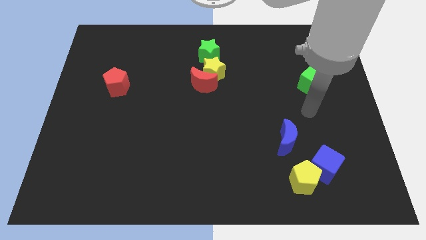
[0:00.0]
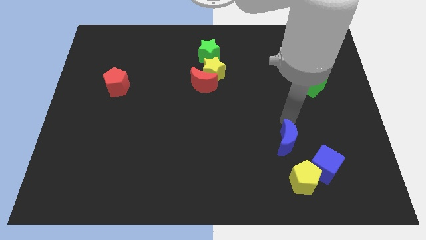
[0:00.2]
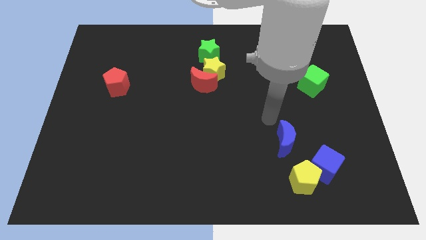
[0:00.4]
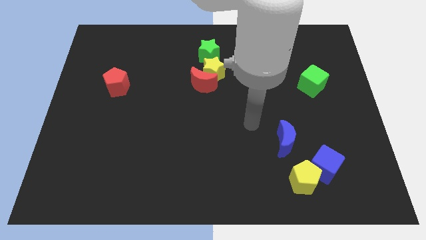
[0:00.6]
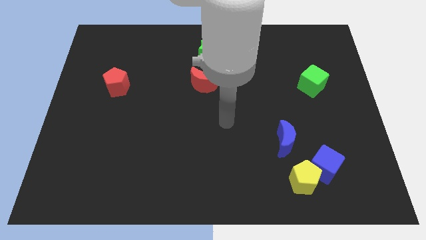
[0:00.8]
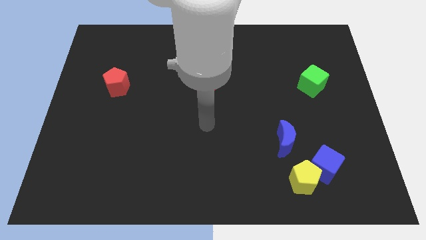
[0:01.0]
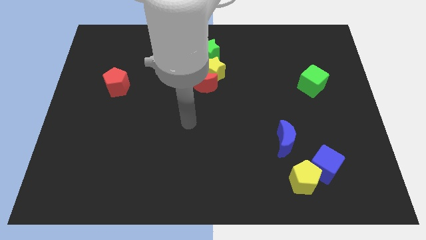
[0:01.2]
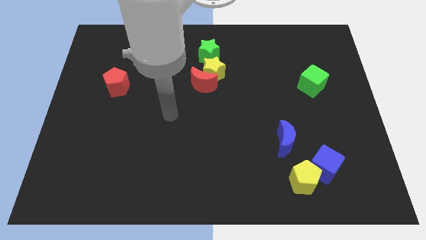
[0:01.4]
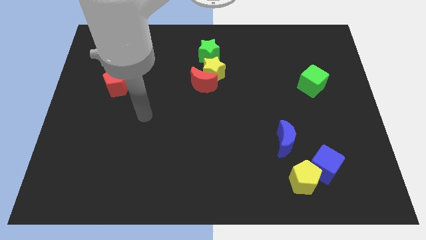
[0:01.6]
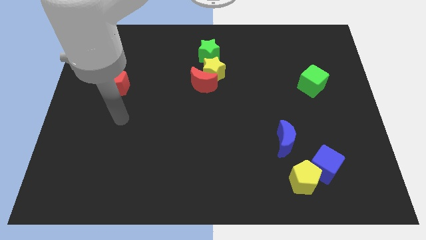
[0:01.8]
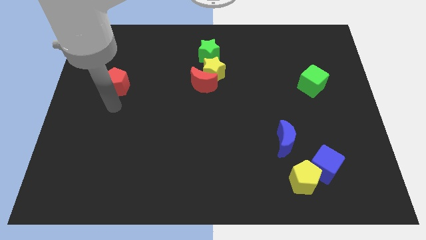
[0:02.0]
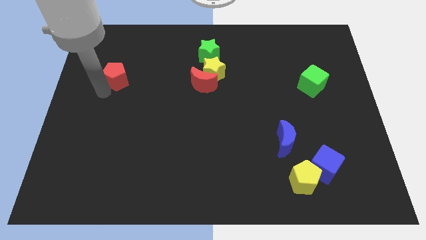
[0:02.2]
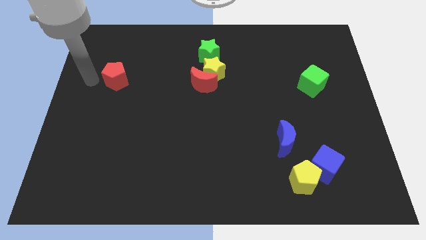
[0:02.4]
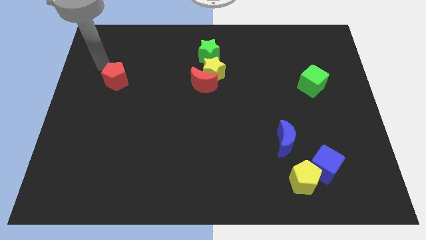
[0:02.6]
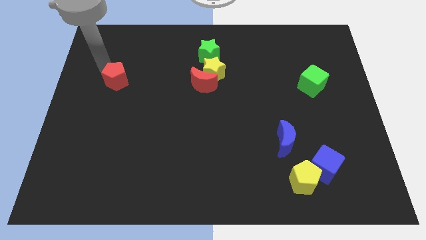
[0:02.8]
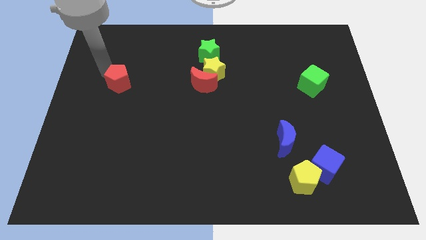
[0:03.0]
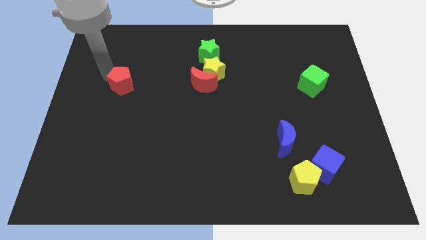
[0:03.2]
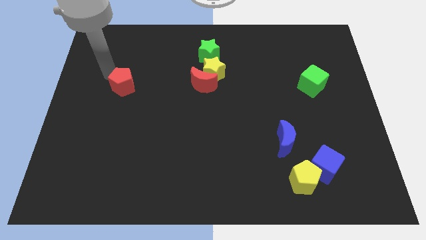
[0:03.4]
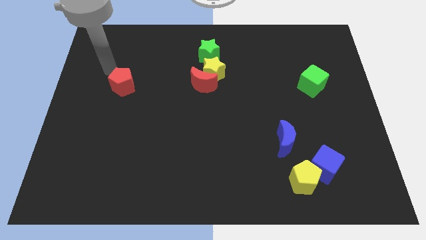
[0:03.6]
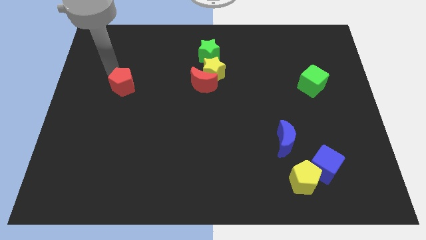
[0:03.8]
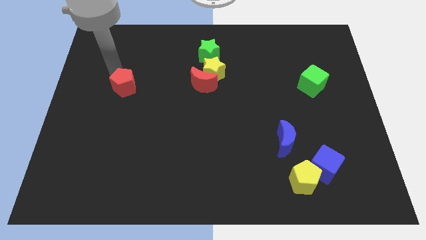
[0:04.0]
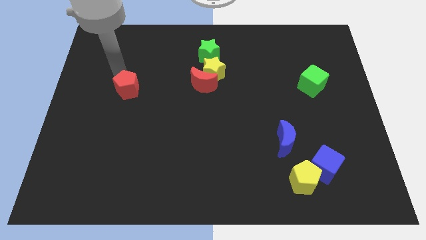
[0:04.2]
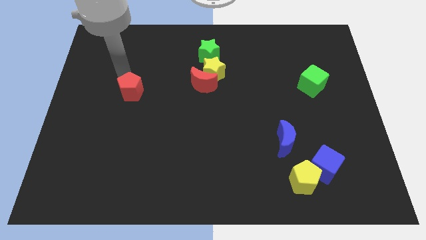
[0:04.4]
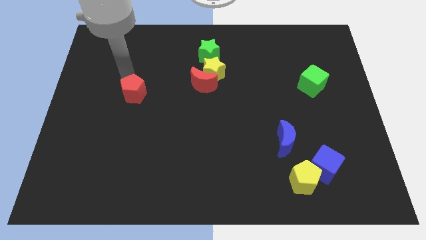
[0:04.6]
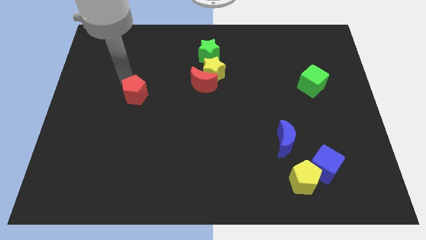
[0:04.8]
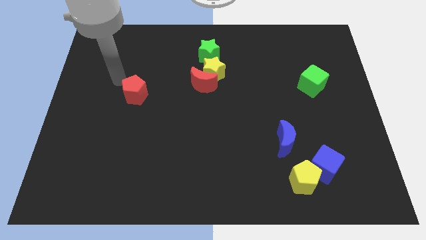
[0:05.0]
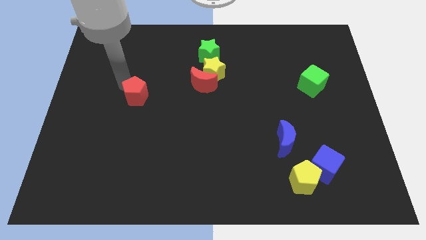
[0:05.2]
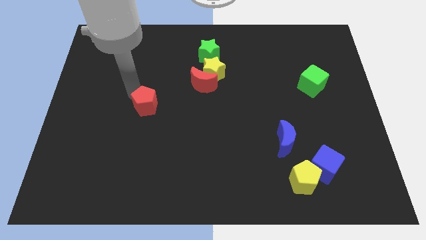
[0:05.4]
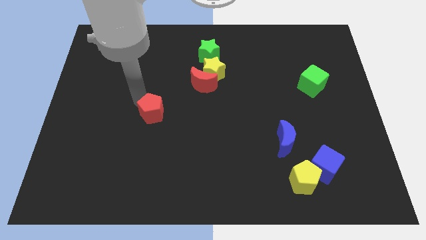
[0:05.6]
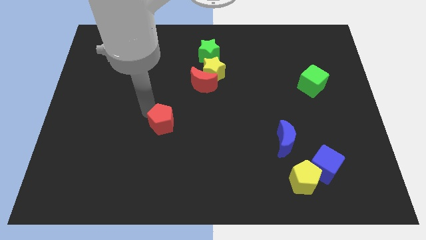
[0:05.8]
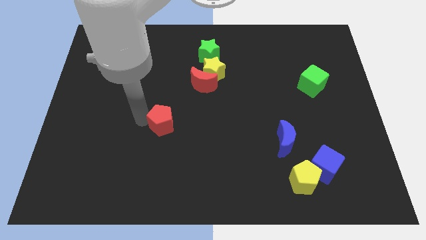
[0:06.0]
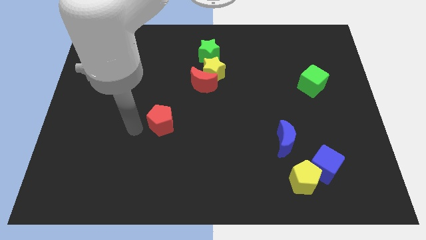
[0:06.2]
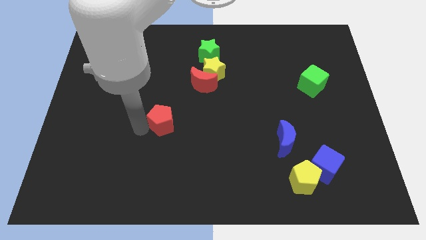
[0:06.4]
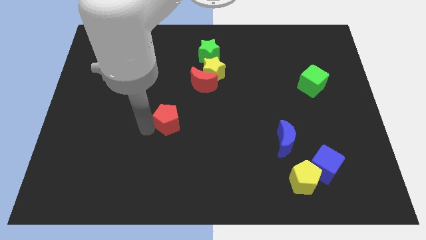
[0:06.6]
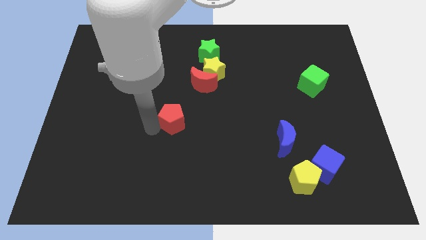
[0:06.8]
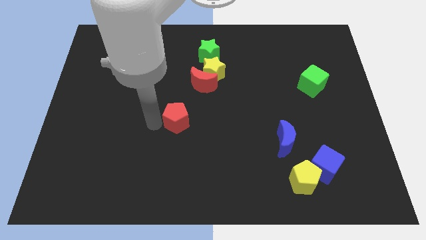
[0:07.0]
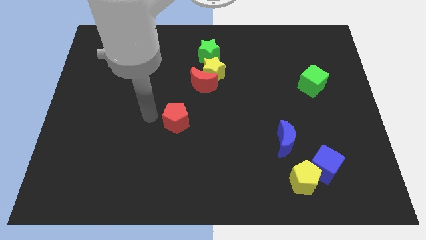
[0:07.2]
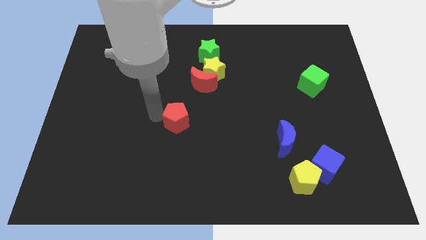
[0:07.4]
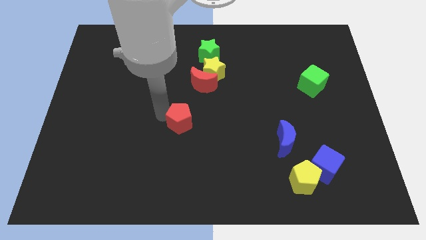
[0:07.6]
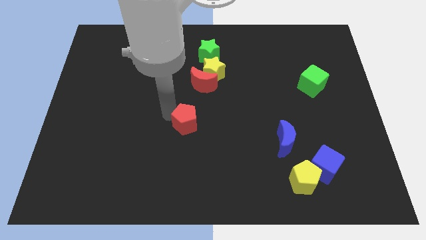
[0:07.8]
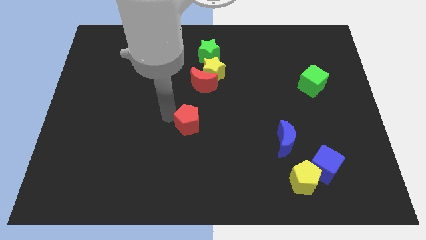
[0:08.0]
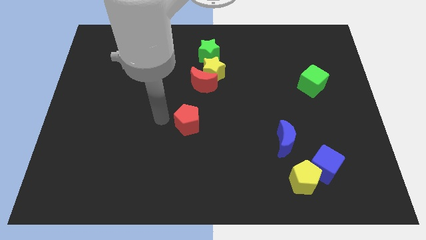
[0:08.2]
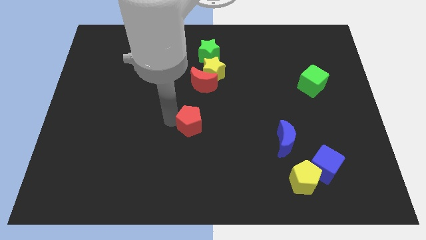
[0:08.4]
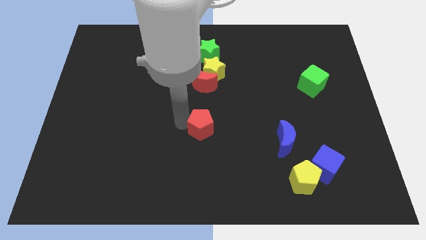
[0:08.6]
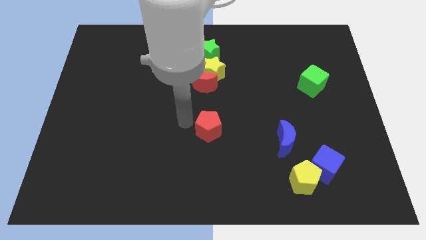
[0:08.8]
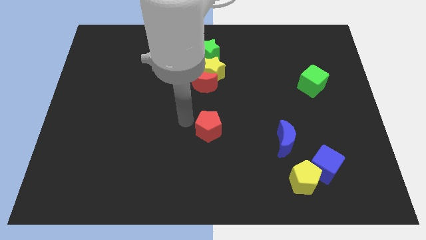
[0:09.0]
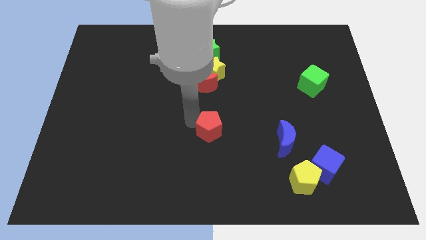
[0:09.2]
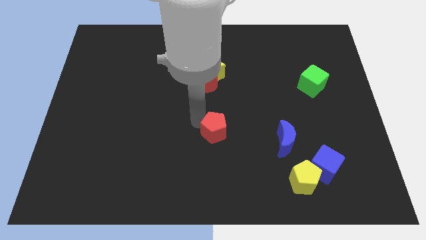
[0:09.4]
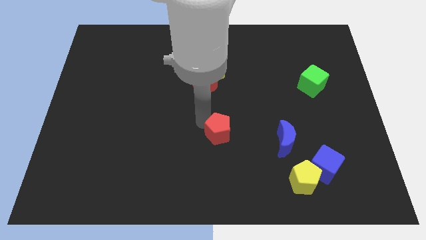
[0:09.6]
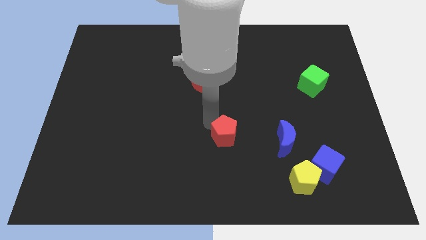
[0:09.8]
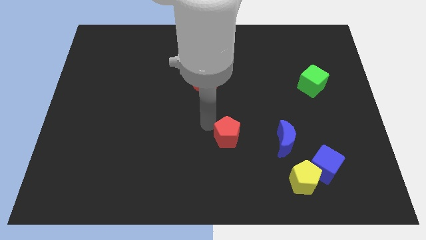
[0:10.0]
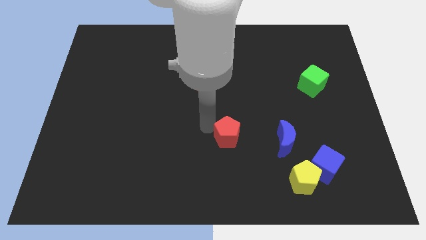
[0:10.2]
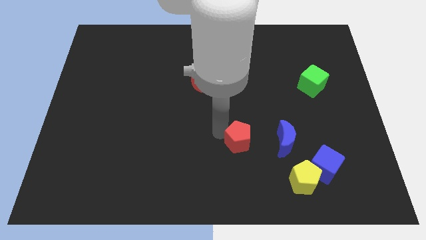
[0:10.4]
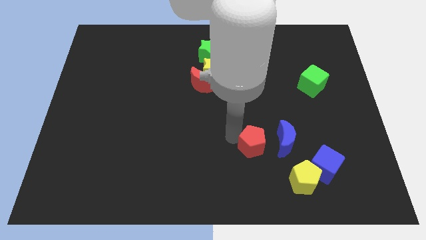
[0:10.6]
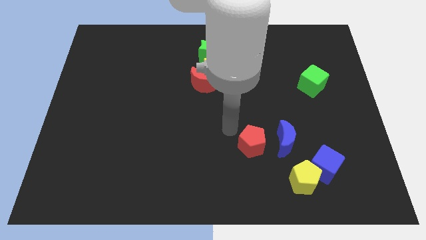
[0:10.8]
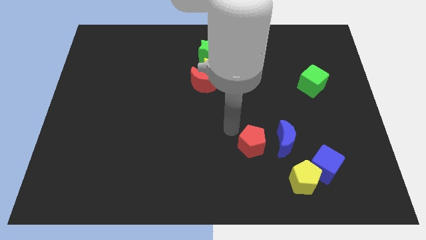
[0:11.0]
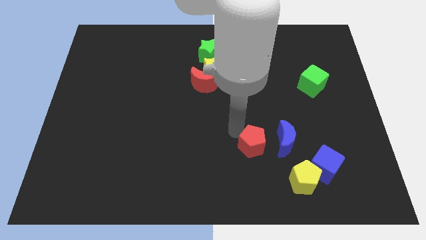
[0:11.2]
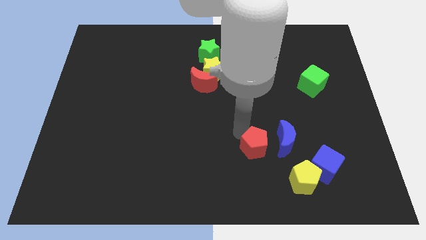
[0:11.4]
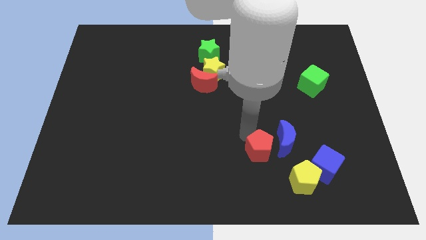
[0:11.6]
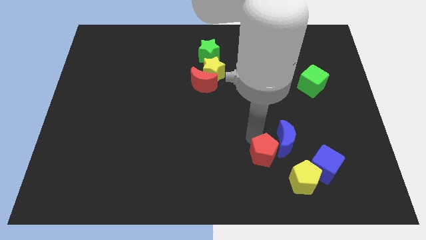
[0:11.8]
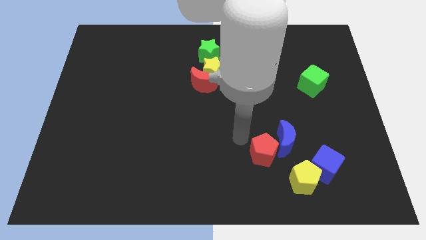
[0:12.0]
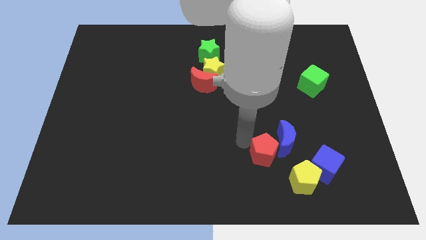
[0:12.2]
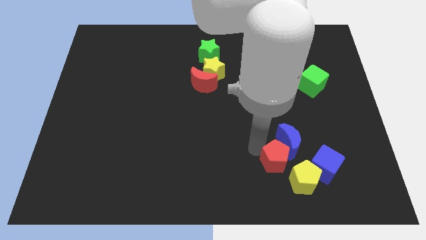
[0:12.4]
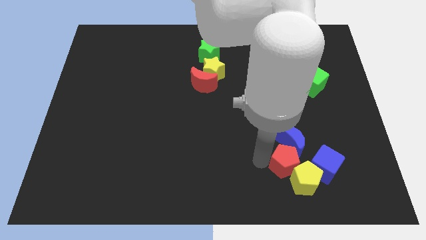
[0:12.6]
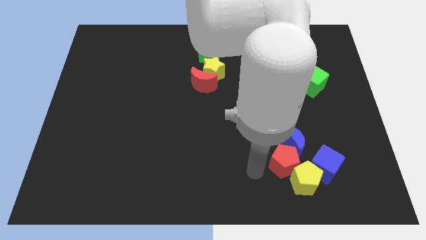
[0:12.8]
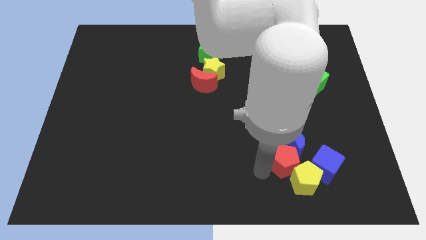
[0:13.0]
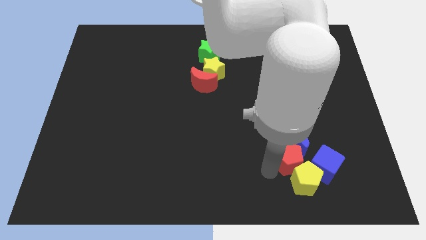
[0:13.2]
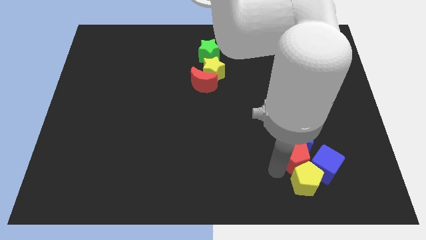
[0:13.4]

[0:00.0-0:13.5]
push the red pentagon close to the blue cube
